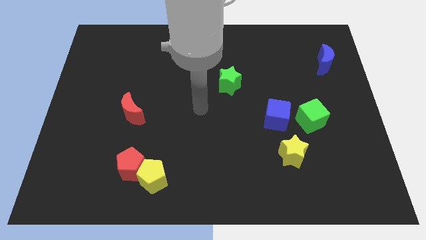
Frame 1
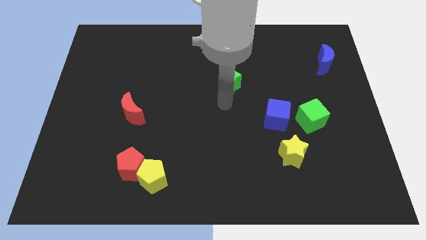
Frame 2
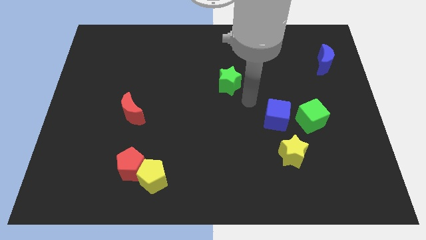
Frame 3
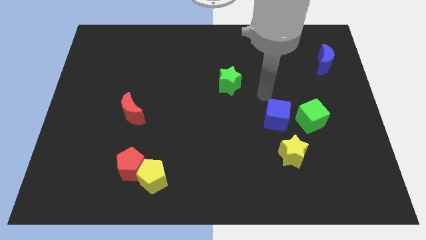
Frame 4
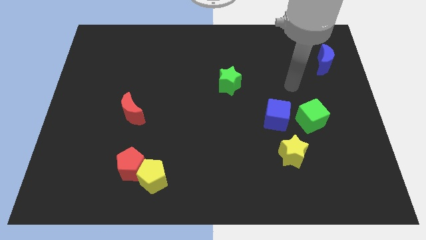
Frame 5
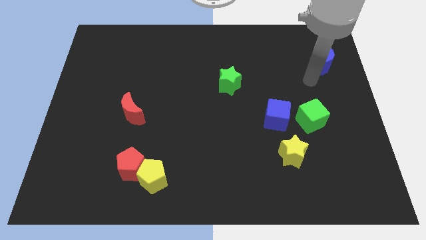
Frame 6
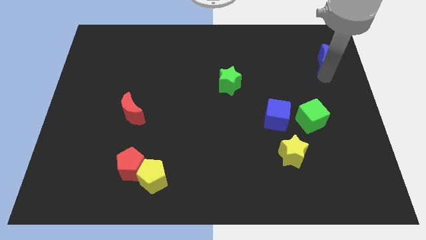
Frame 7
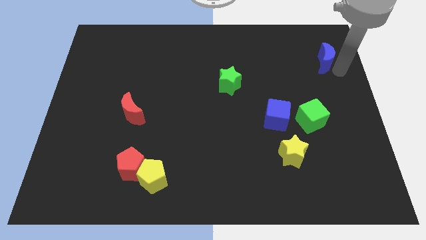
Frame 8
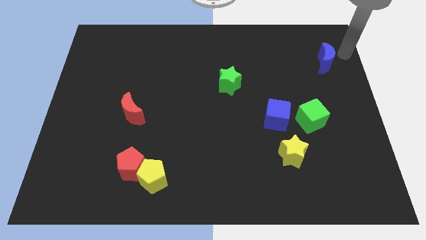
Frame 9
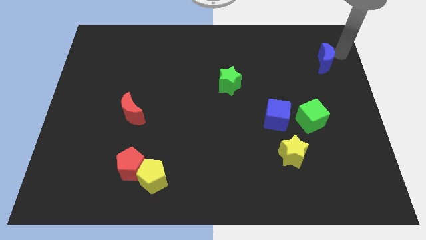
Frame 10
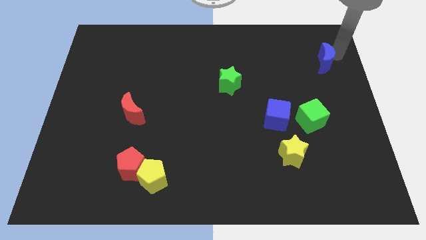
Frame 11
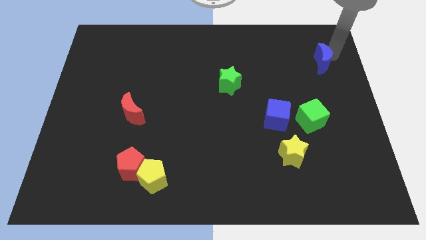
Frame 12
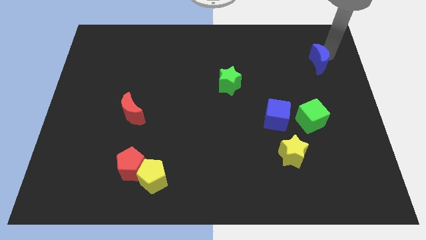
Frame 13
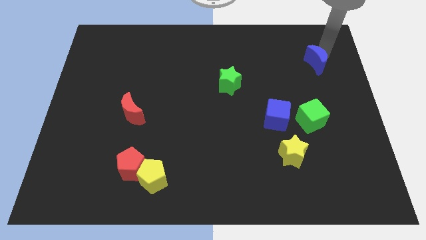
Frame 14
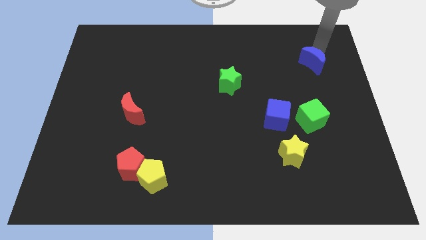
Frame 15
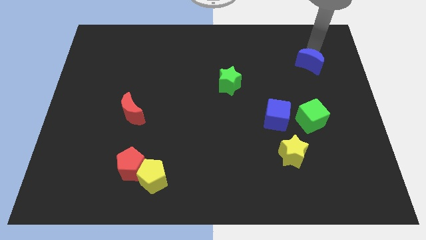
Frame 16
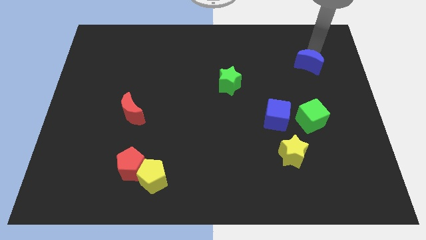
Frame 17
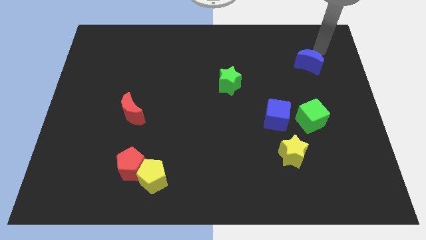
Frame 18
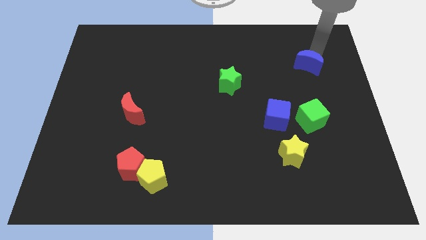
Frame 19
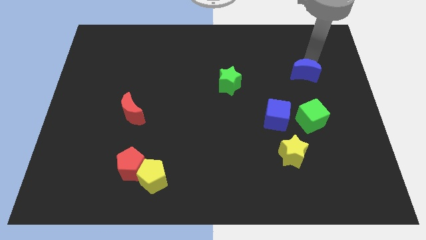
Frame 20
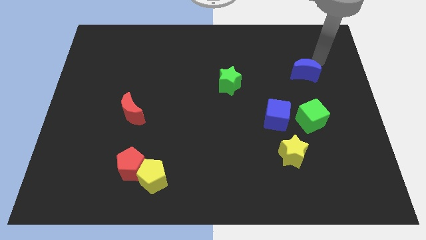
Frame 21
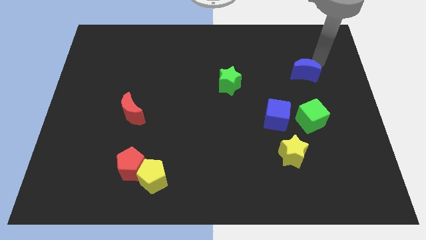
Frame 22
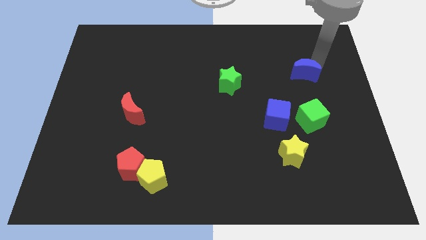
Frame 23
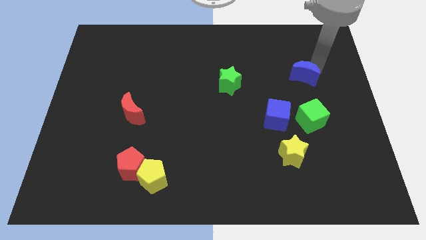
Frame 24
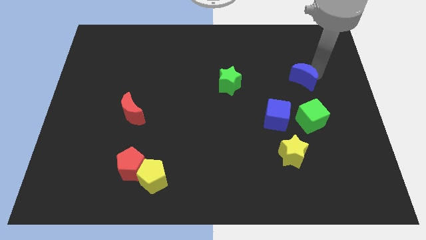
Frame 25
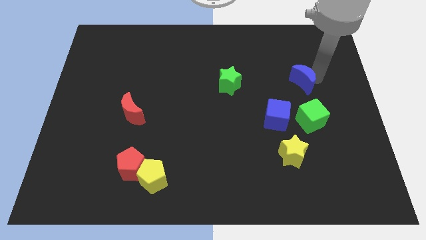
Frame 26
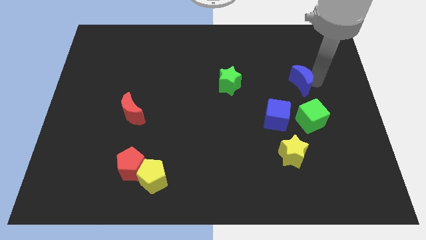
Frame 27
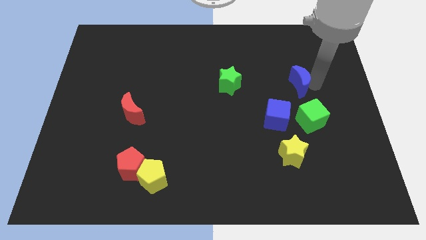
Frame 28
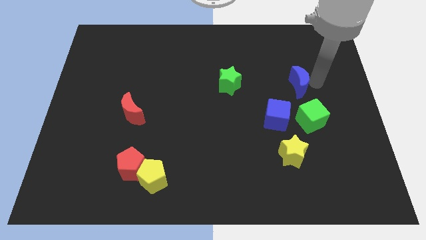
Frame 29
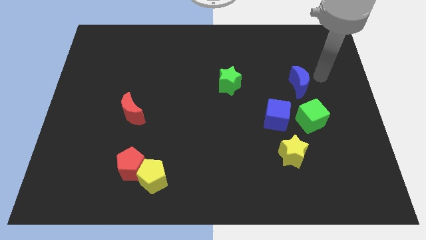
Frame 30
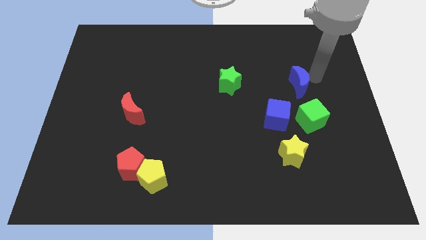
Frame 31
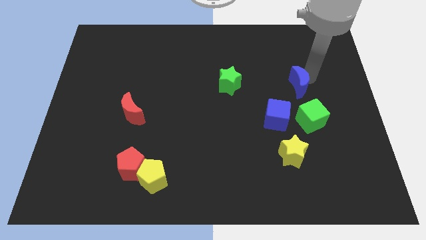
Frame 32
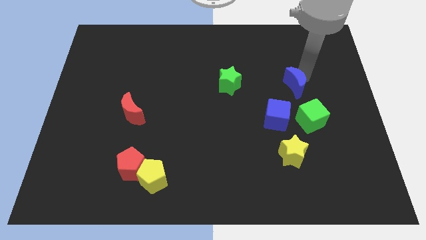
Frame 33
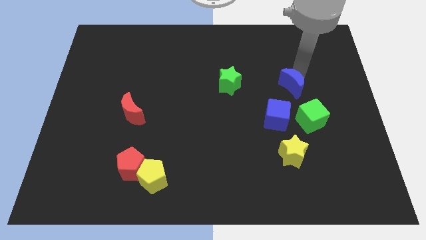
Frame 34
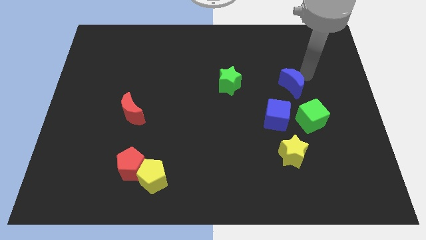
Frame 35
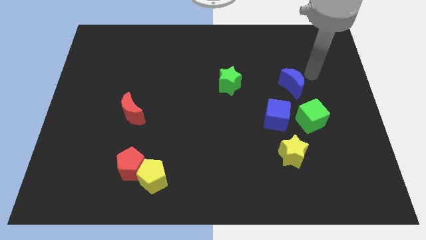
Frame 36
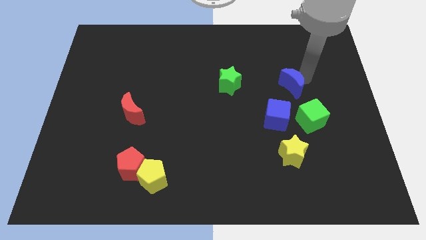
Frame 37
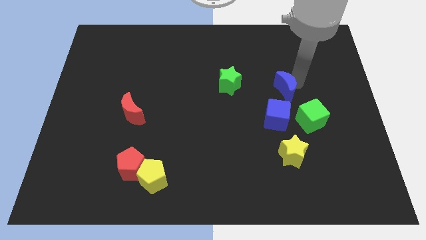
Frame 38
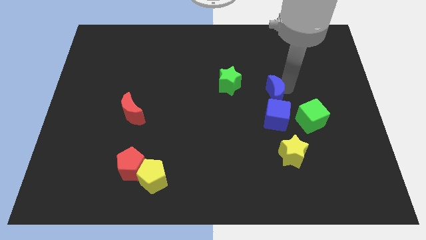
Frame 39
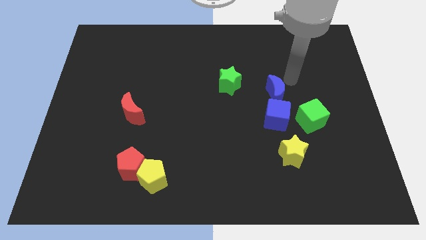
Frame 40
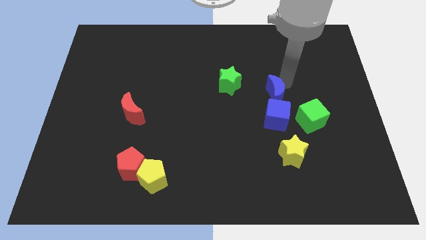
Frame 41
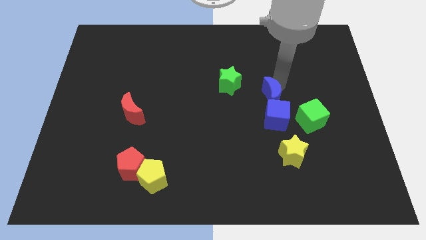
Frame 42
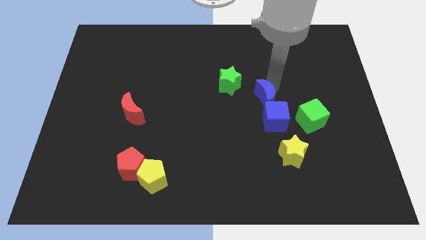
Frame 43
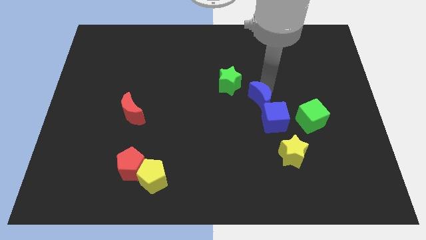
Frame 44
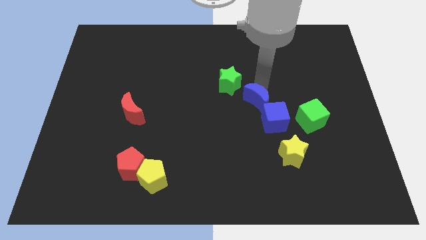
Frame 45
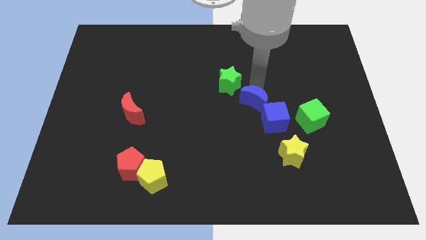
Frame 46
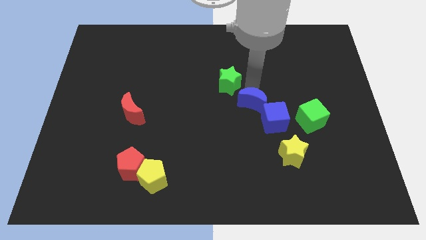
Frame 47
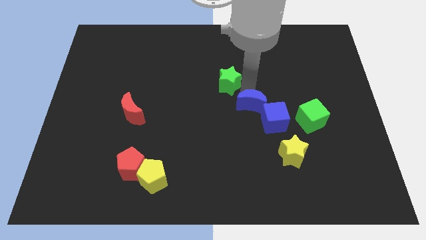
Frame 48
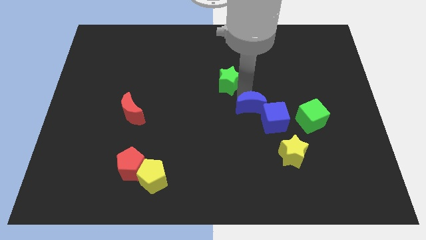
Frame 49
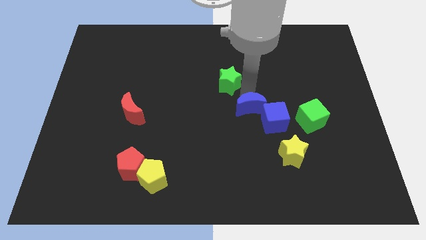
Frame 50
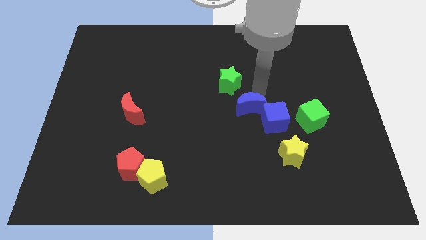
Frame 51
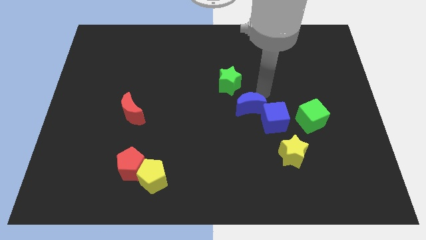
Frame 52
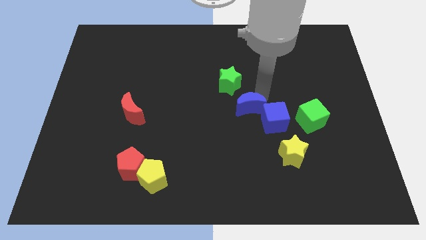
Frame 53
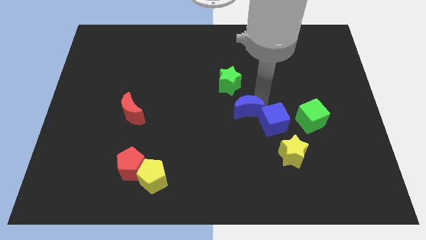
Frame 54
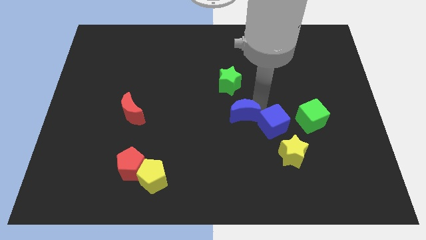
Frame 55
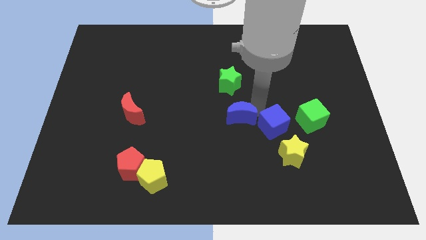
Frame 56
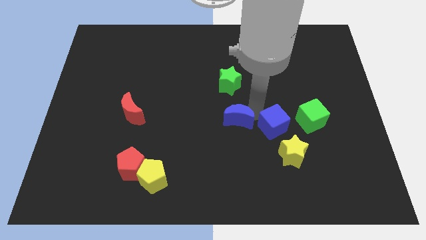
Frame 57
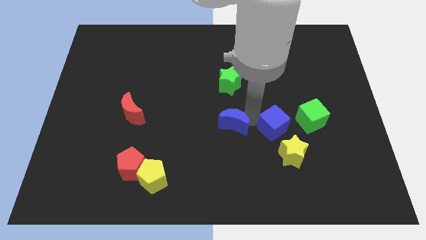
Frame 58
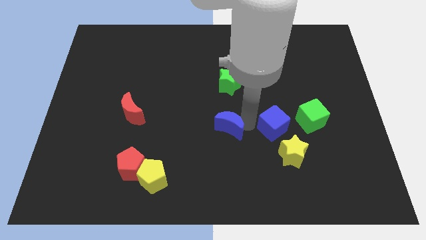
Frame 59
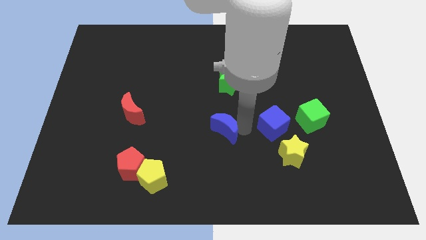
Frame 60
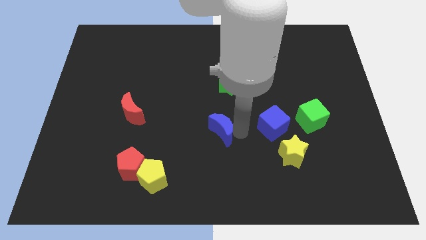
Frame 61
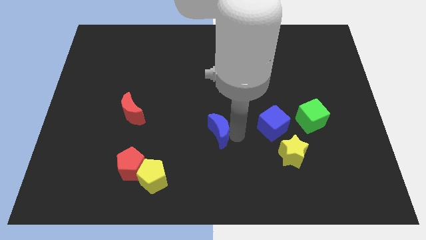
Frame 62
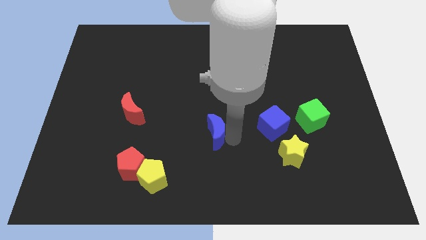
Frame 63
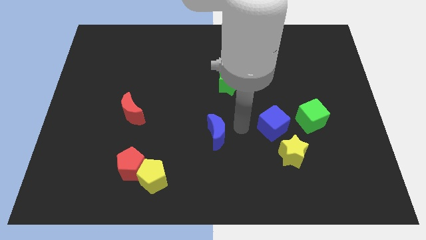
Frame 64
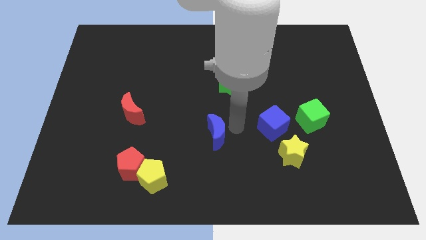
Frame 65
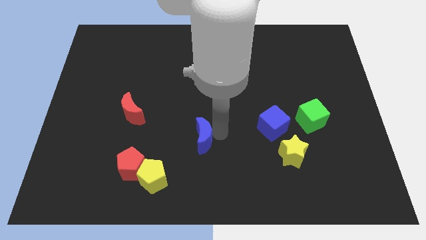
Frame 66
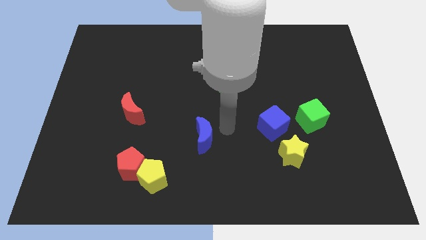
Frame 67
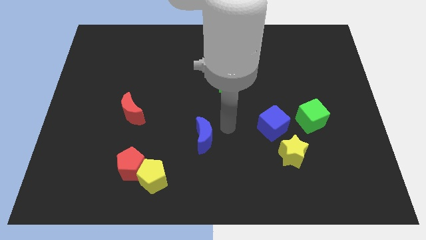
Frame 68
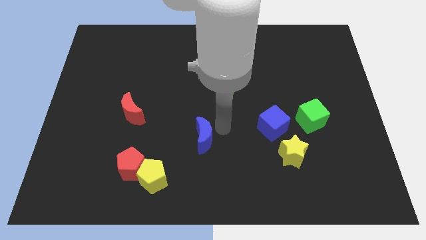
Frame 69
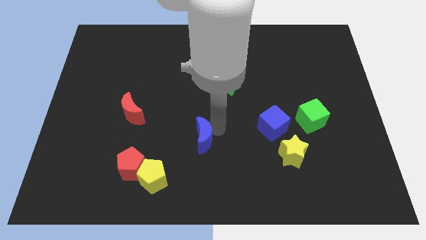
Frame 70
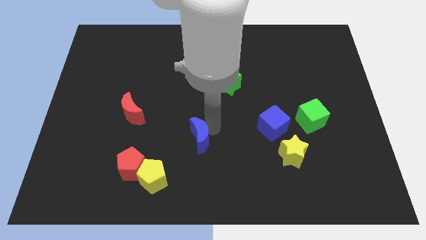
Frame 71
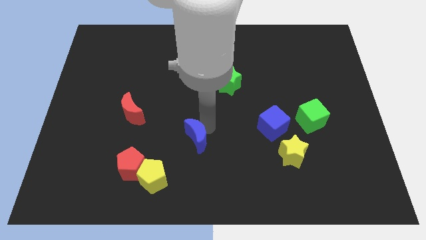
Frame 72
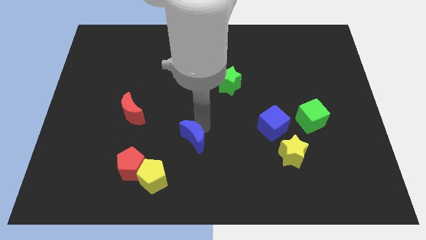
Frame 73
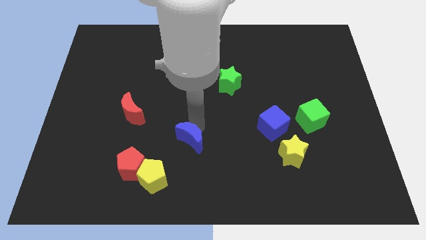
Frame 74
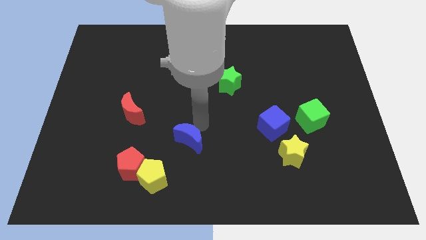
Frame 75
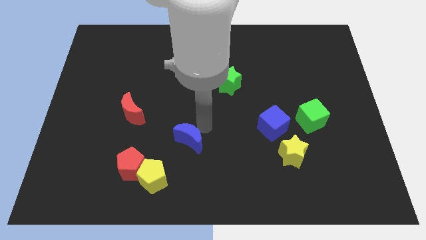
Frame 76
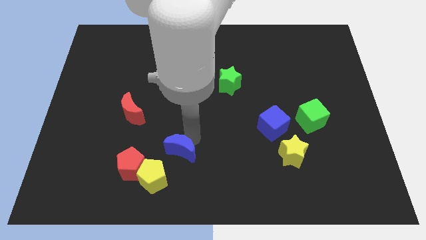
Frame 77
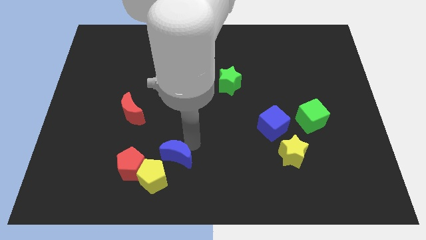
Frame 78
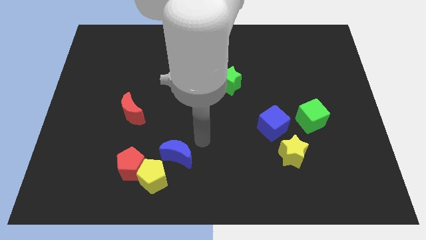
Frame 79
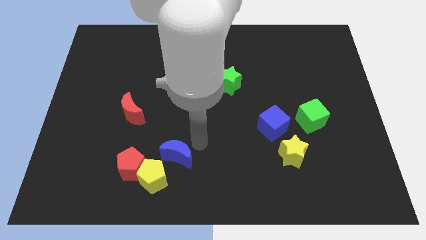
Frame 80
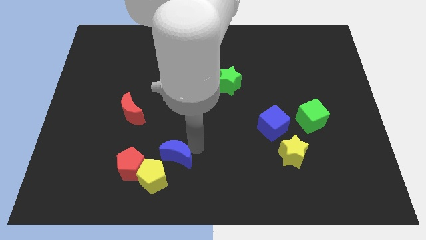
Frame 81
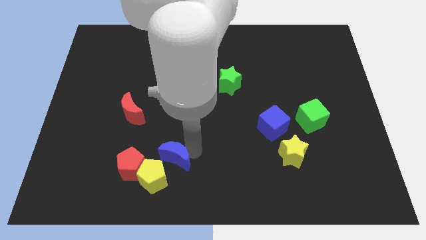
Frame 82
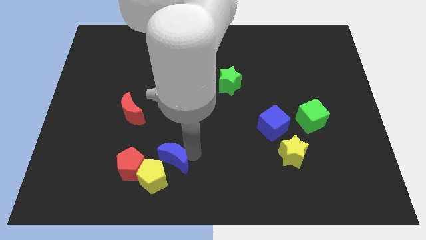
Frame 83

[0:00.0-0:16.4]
slide the blue moon next to the yellow pentagon
